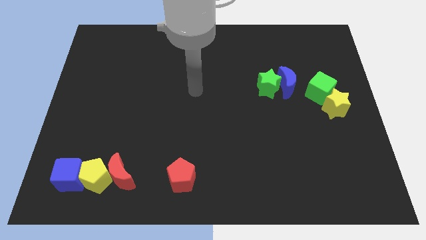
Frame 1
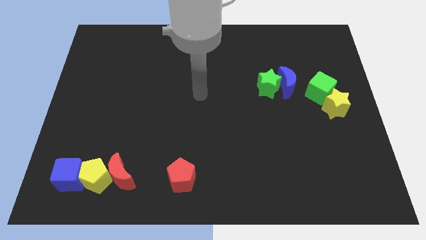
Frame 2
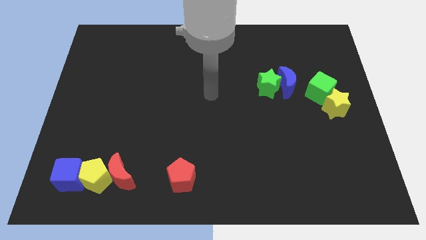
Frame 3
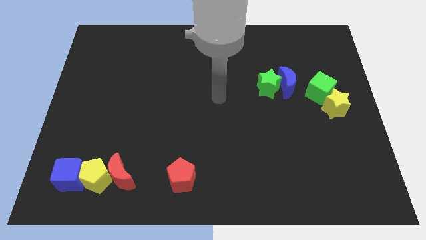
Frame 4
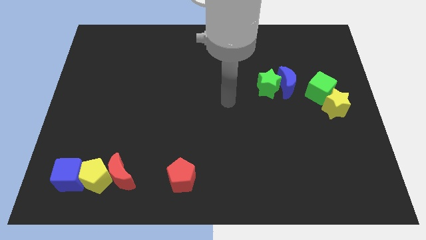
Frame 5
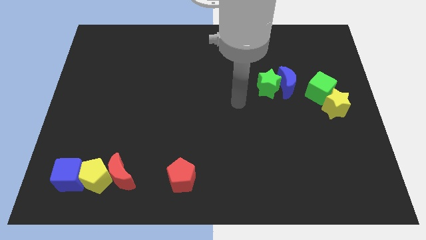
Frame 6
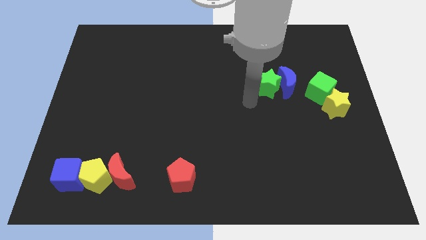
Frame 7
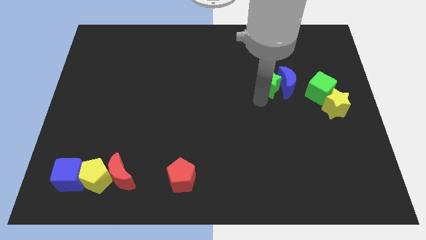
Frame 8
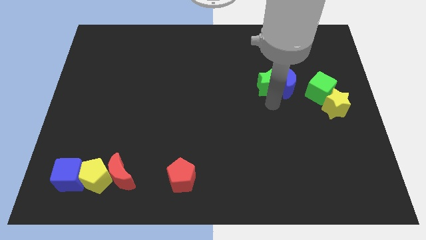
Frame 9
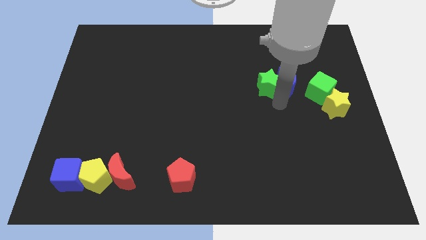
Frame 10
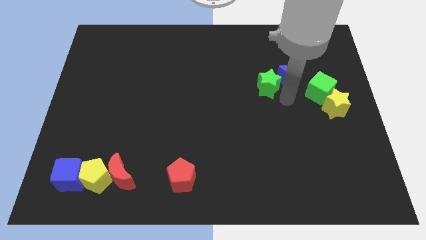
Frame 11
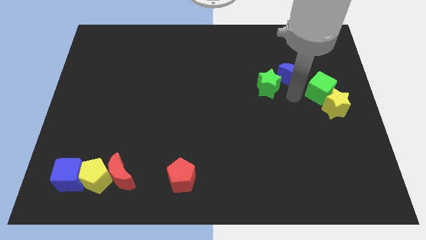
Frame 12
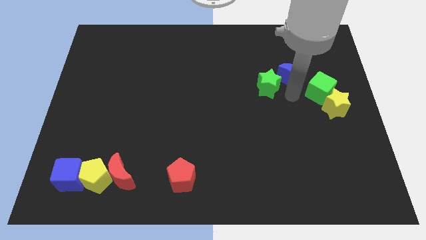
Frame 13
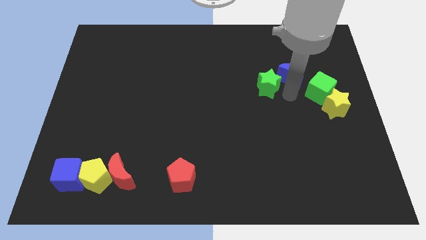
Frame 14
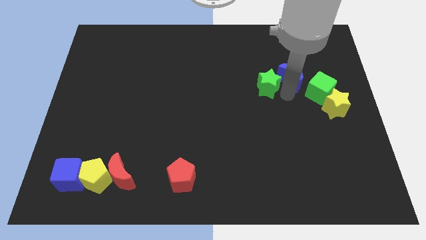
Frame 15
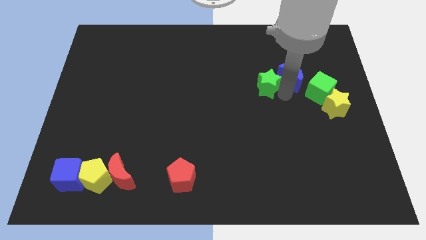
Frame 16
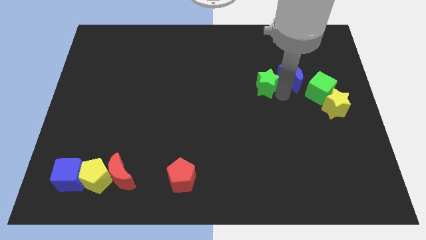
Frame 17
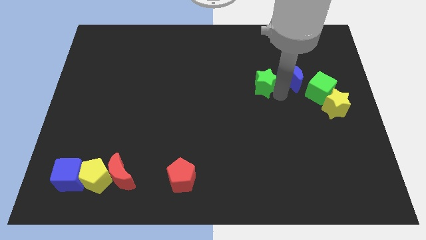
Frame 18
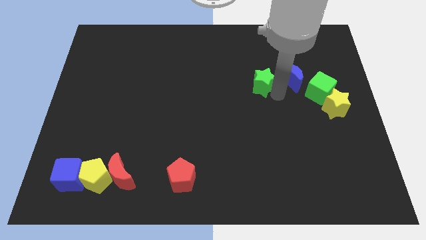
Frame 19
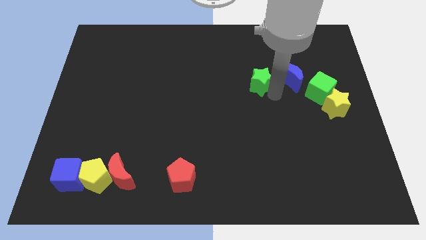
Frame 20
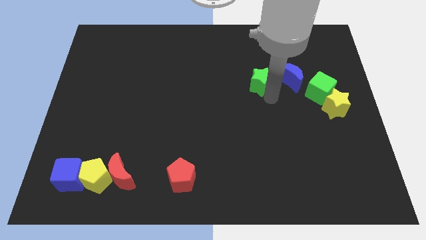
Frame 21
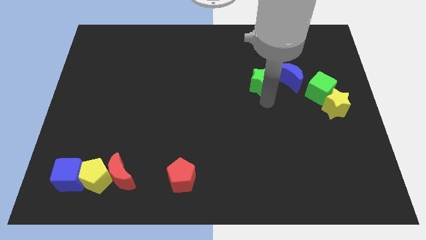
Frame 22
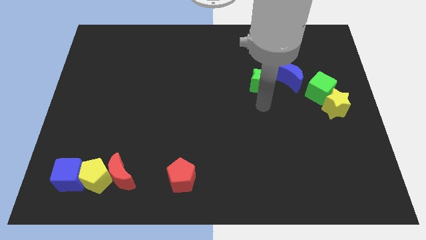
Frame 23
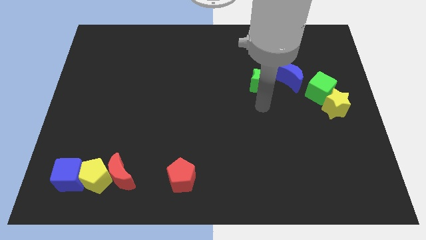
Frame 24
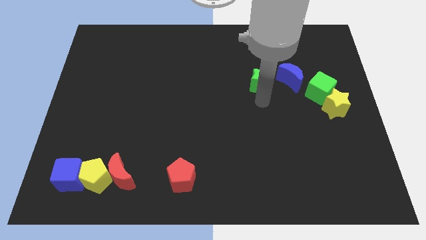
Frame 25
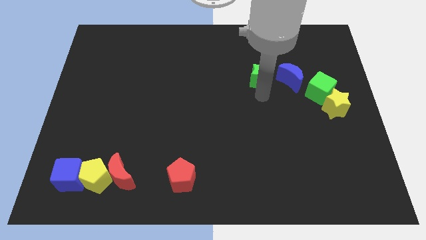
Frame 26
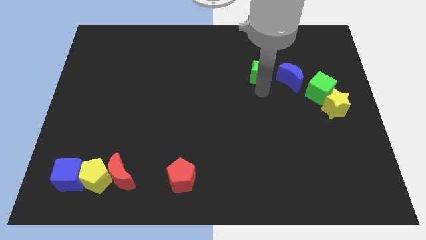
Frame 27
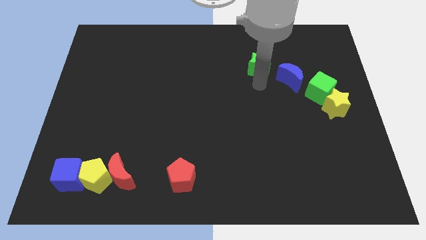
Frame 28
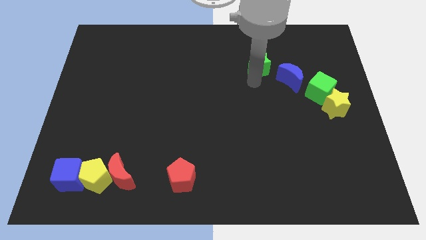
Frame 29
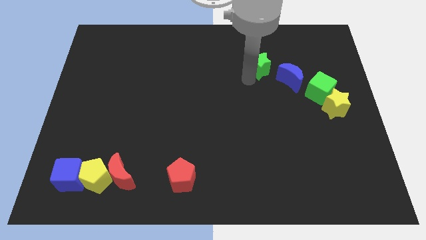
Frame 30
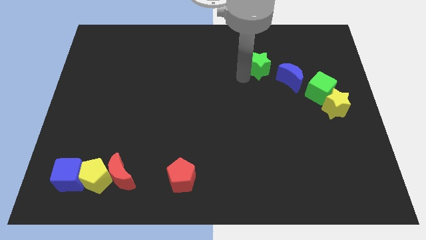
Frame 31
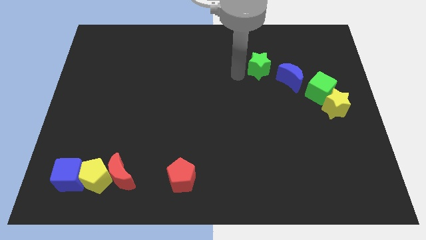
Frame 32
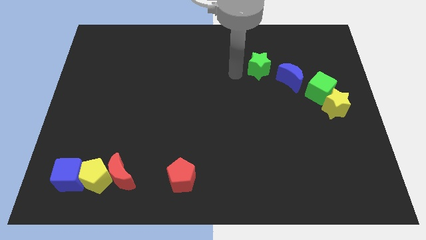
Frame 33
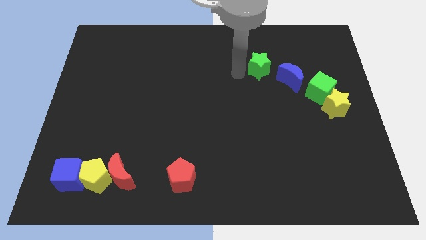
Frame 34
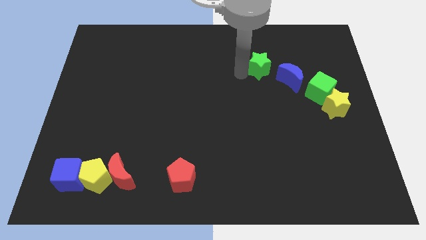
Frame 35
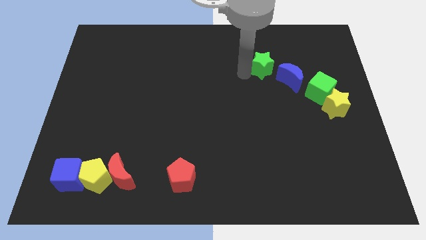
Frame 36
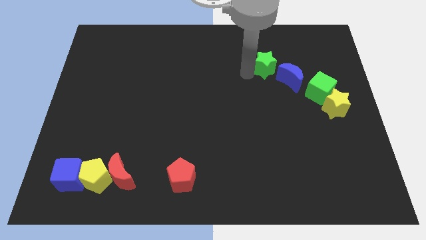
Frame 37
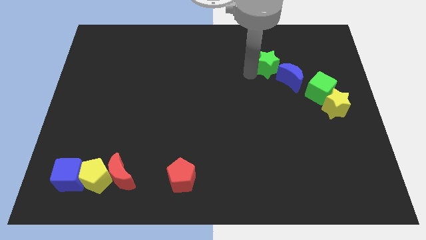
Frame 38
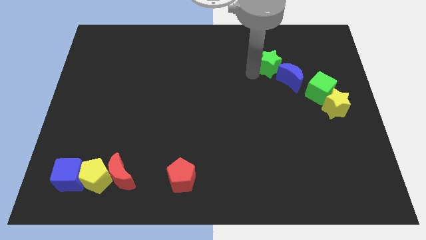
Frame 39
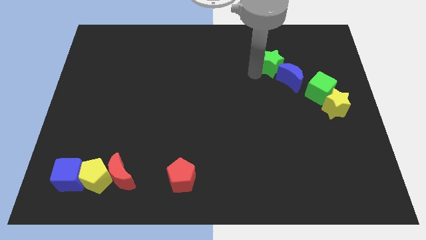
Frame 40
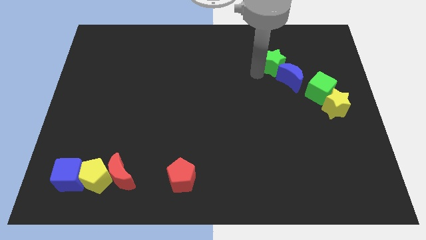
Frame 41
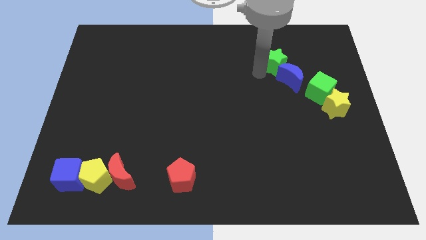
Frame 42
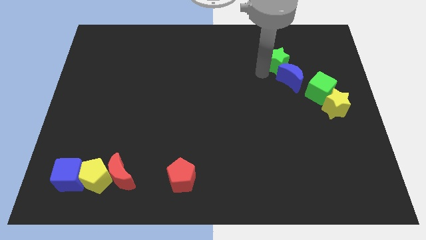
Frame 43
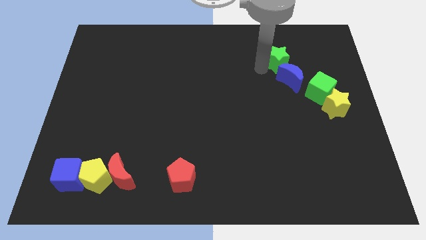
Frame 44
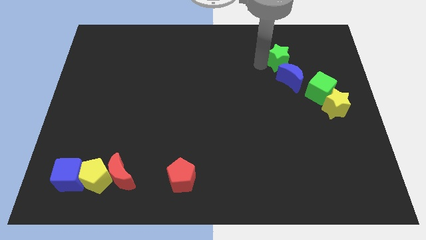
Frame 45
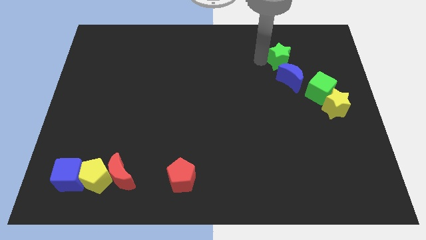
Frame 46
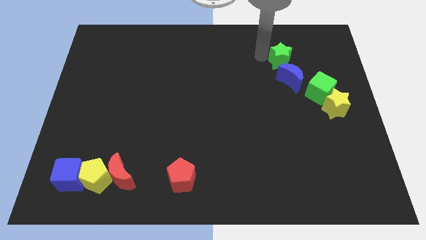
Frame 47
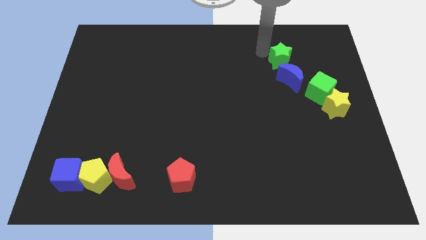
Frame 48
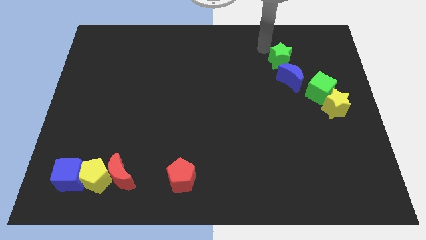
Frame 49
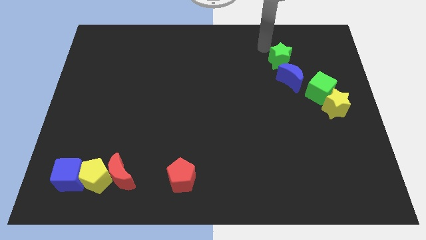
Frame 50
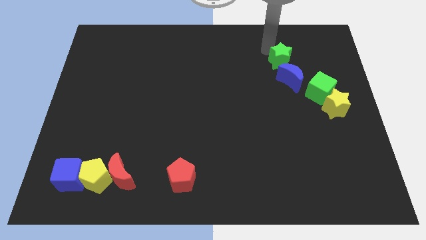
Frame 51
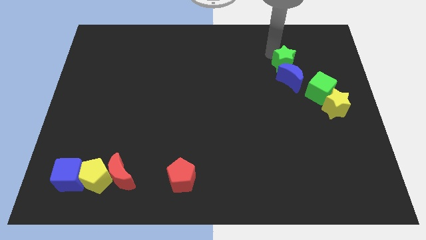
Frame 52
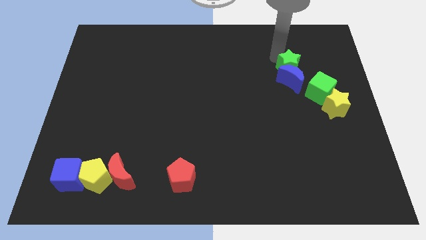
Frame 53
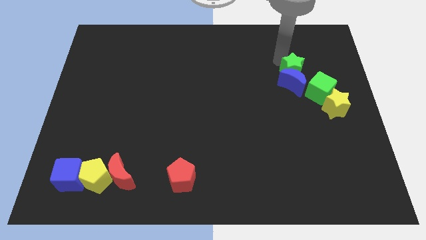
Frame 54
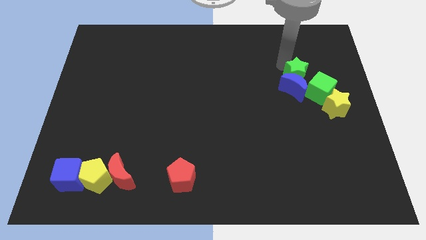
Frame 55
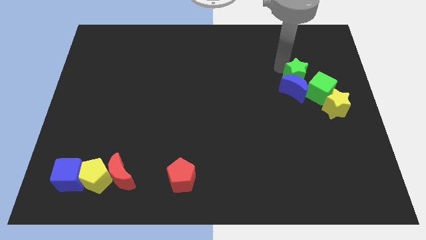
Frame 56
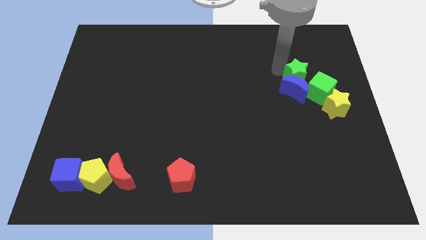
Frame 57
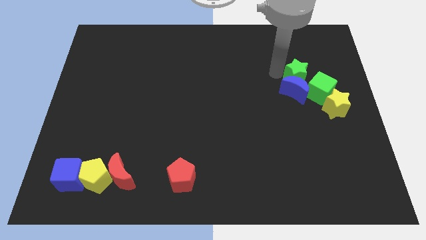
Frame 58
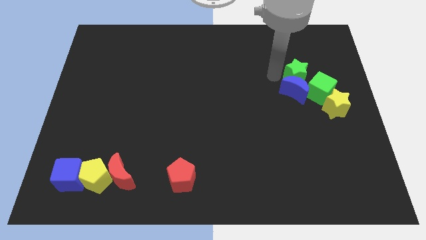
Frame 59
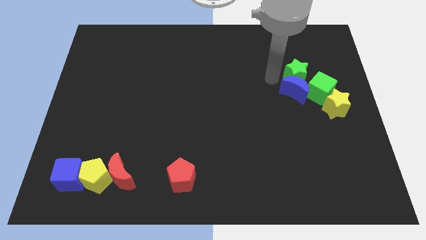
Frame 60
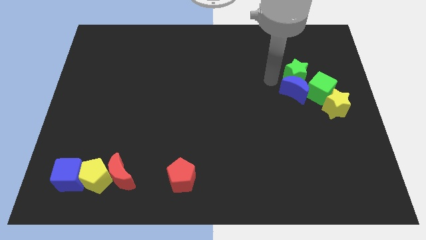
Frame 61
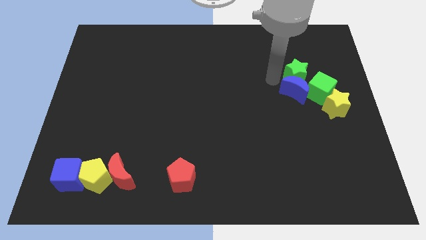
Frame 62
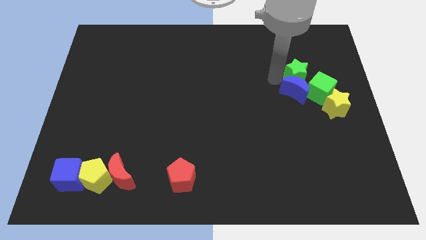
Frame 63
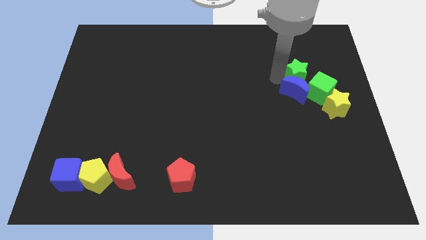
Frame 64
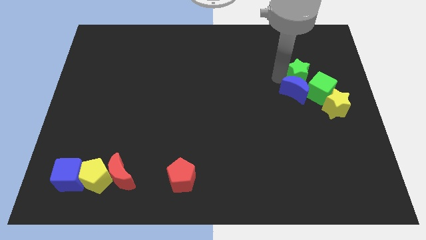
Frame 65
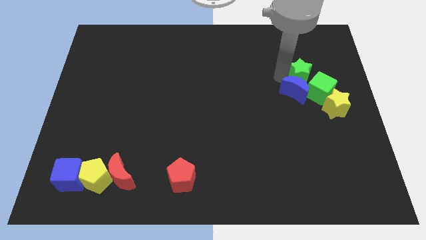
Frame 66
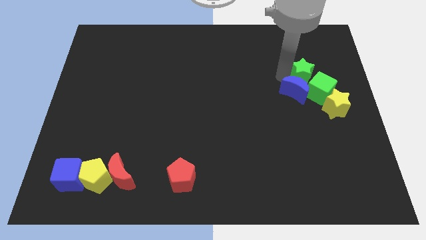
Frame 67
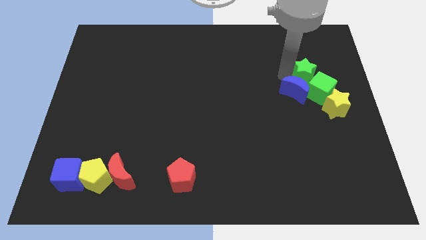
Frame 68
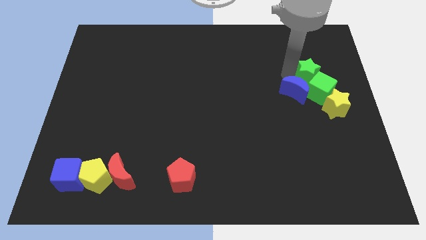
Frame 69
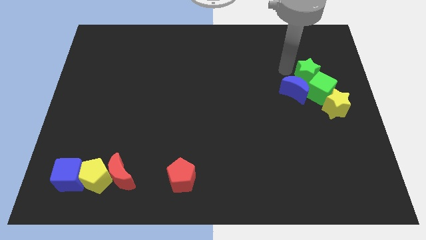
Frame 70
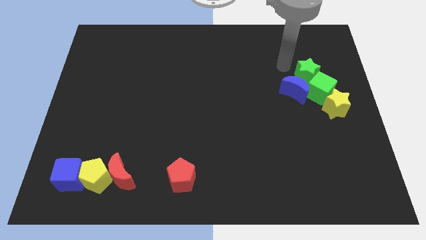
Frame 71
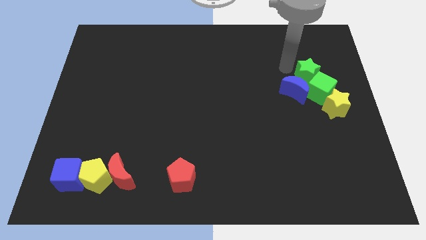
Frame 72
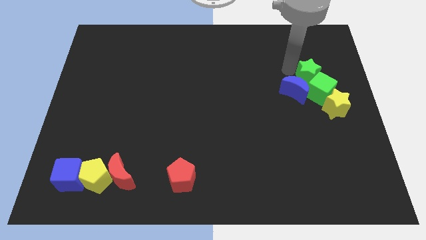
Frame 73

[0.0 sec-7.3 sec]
put the green star to the right of the blue moon
